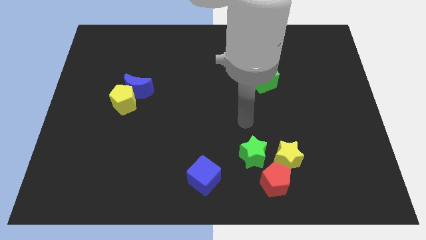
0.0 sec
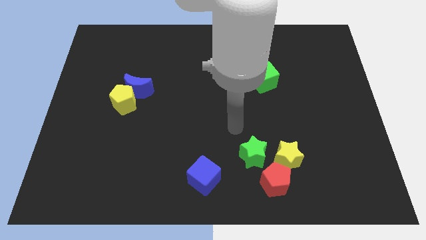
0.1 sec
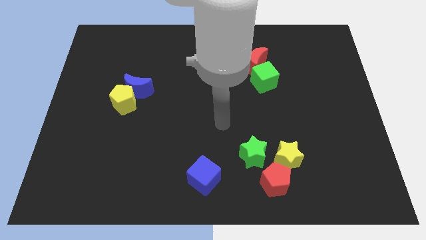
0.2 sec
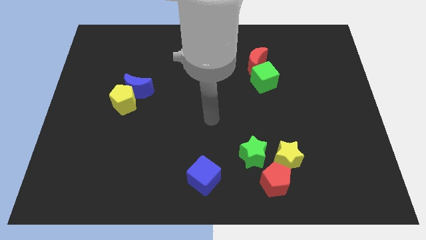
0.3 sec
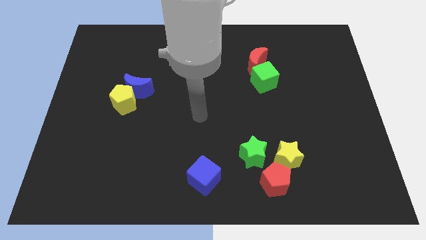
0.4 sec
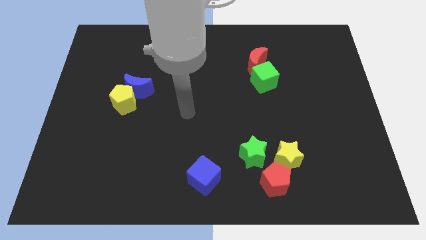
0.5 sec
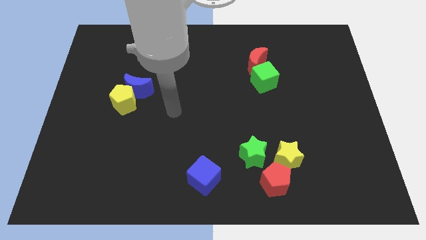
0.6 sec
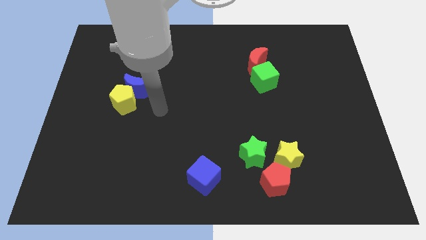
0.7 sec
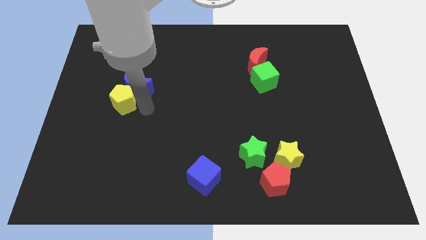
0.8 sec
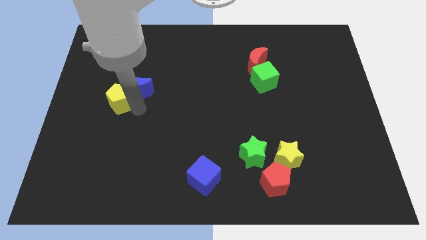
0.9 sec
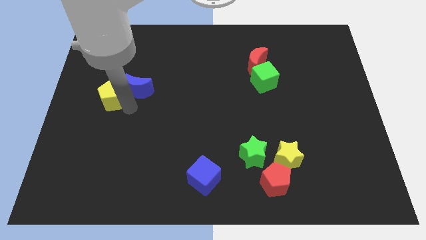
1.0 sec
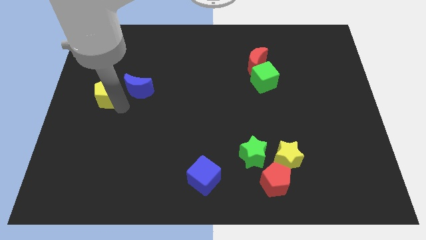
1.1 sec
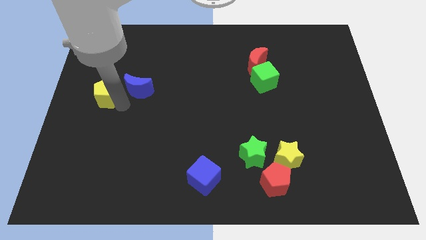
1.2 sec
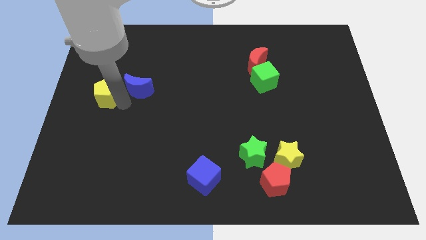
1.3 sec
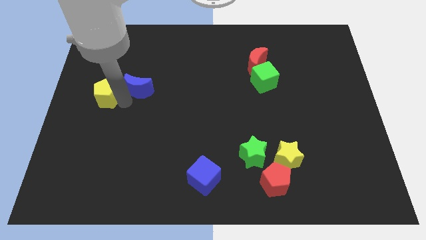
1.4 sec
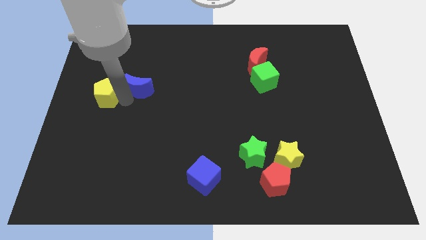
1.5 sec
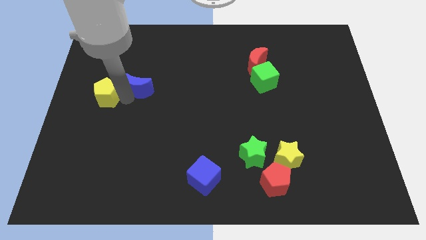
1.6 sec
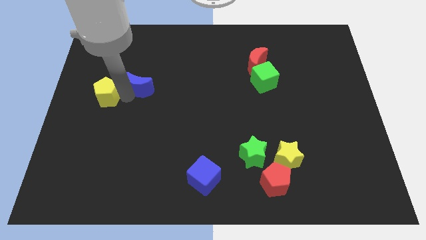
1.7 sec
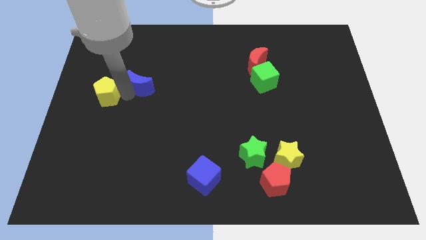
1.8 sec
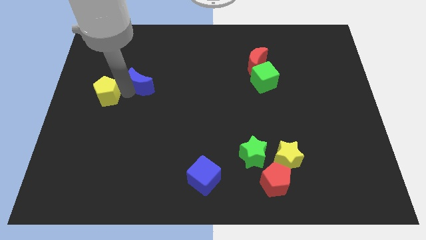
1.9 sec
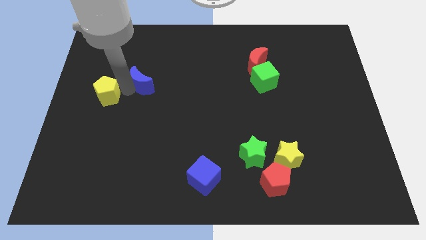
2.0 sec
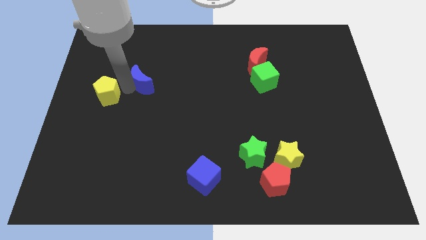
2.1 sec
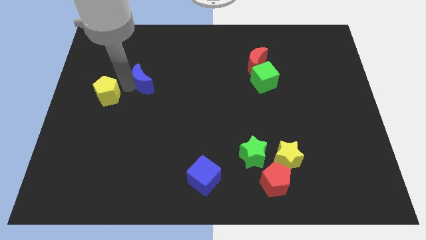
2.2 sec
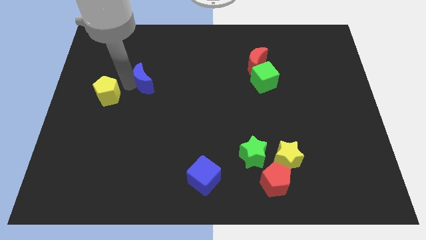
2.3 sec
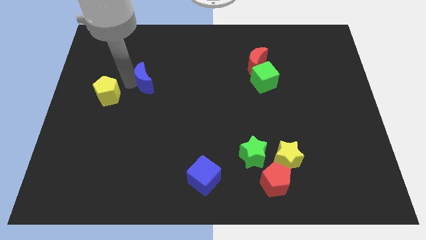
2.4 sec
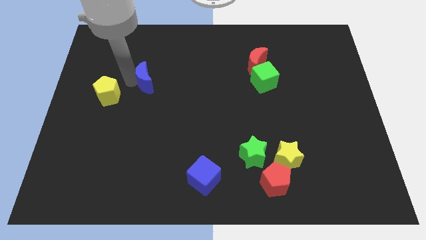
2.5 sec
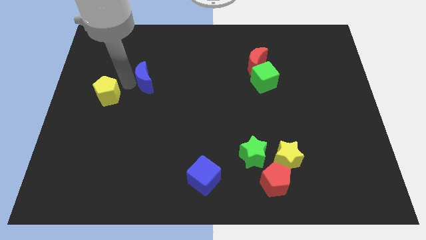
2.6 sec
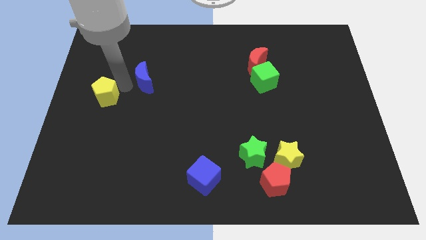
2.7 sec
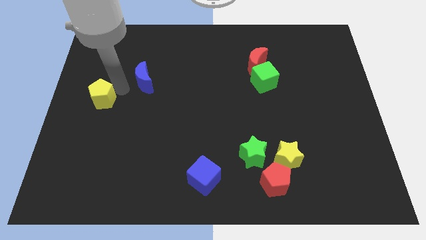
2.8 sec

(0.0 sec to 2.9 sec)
move the blue moon away from the yellow pentagon

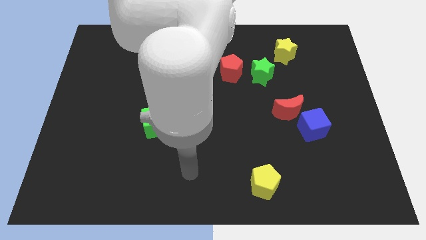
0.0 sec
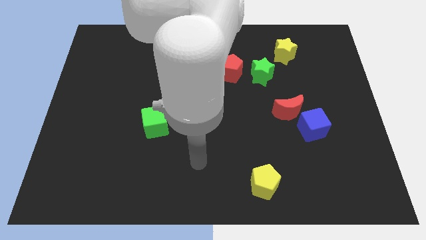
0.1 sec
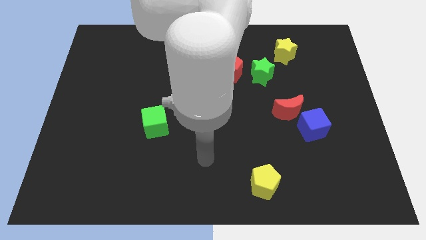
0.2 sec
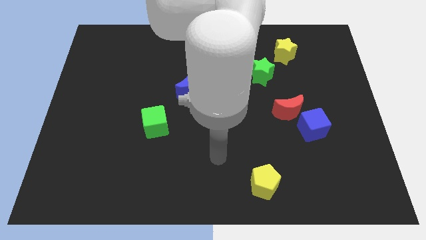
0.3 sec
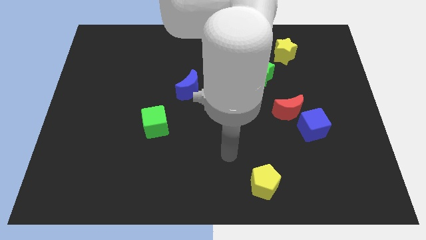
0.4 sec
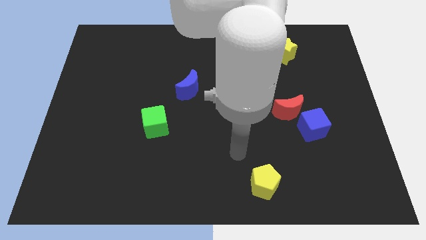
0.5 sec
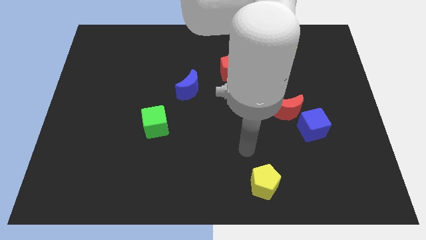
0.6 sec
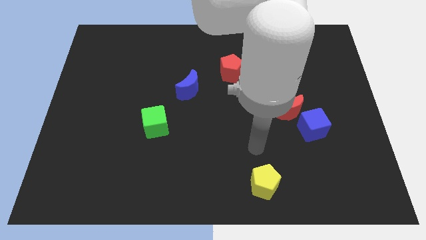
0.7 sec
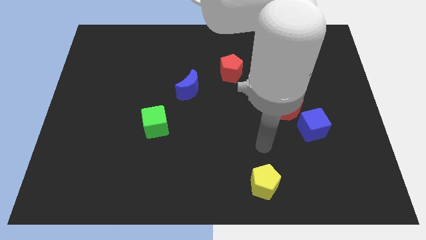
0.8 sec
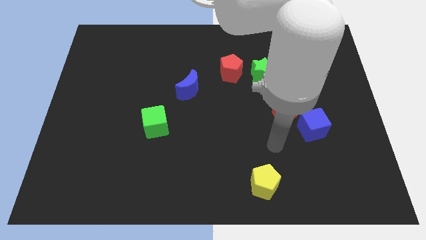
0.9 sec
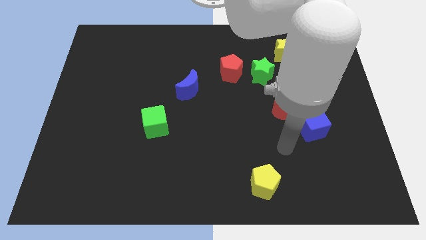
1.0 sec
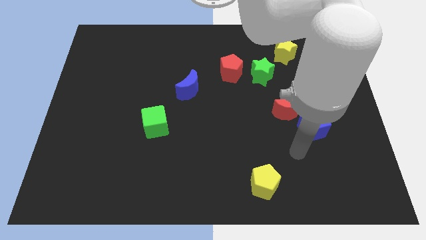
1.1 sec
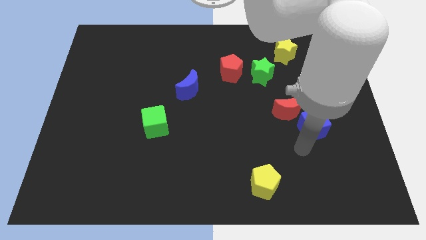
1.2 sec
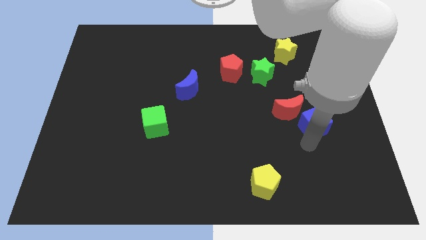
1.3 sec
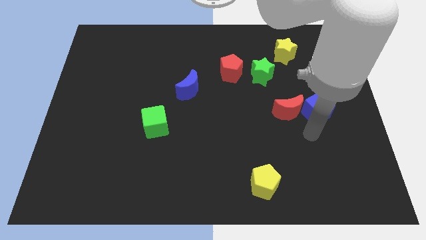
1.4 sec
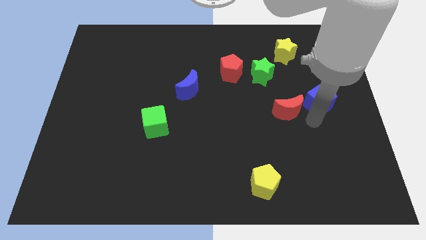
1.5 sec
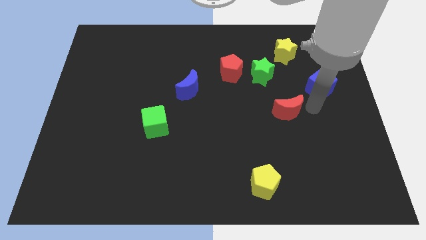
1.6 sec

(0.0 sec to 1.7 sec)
separate the red moon from the blue cube

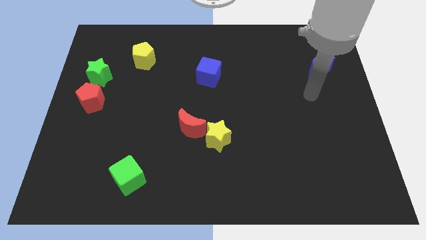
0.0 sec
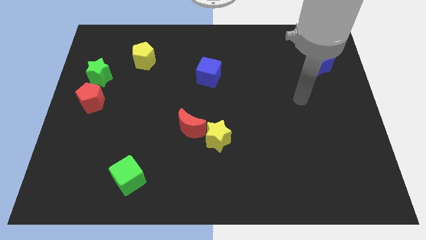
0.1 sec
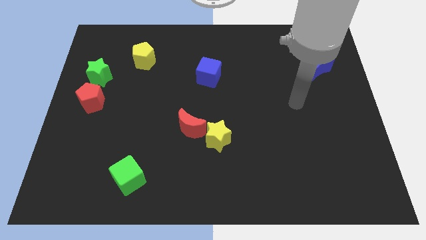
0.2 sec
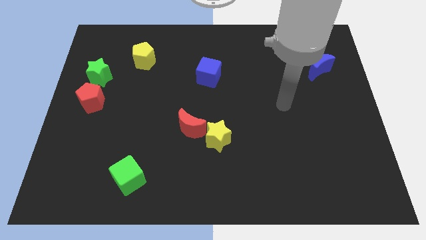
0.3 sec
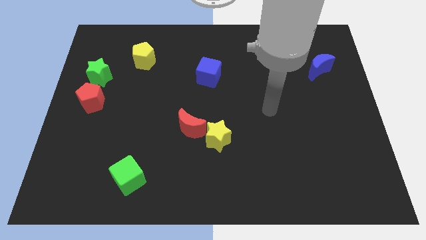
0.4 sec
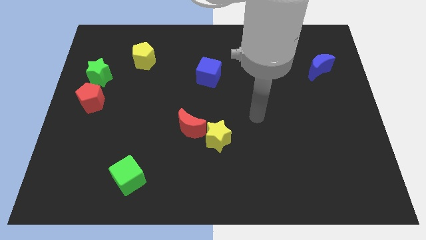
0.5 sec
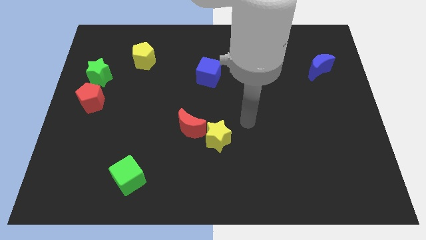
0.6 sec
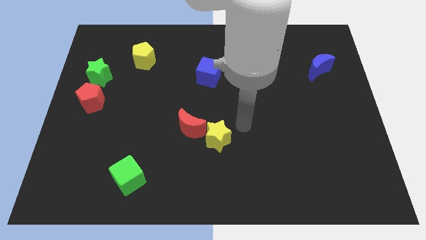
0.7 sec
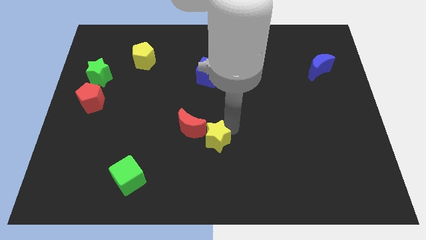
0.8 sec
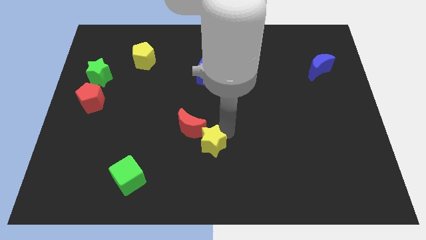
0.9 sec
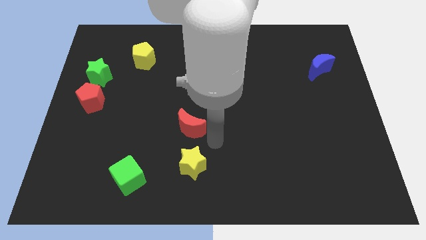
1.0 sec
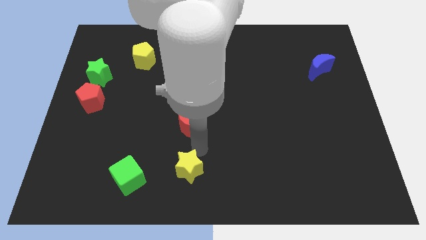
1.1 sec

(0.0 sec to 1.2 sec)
pull the red moon apart from the yellow star

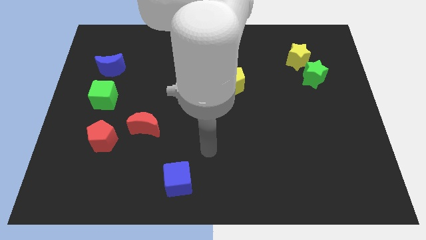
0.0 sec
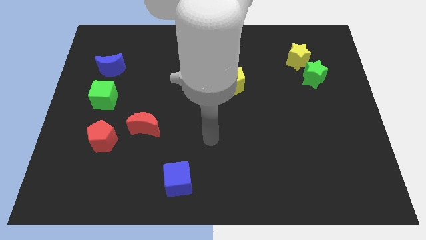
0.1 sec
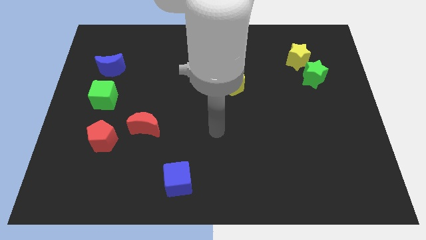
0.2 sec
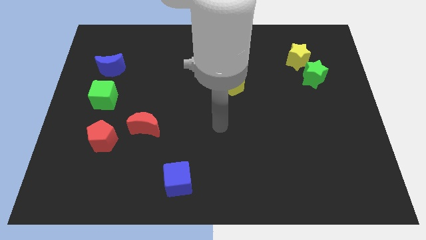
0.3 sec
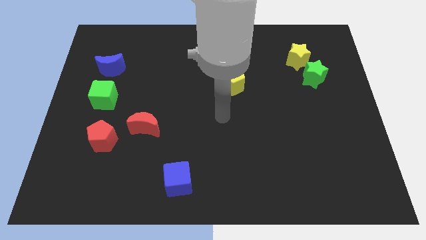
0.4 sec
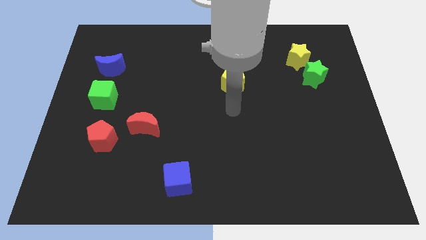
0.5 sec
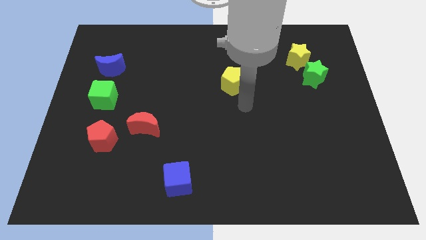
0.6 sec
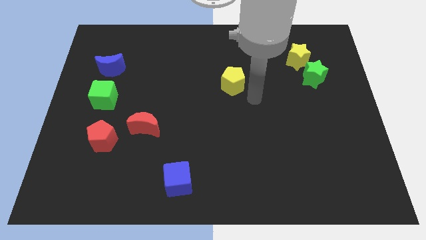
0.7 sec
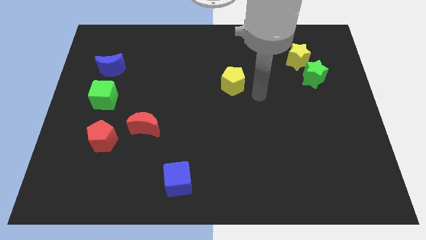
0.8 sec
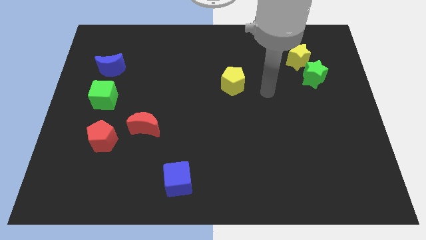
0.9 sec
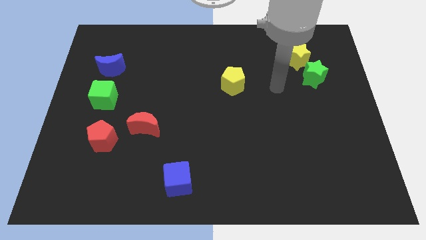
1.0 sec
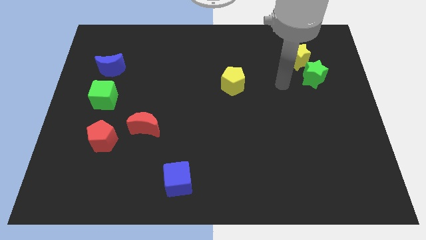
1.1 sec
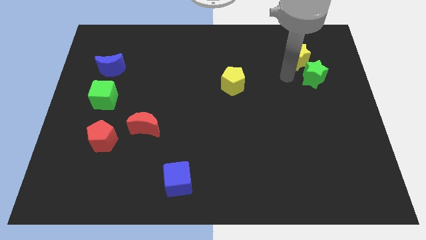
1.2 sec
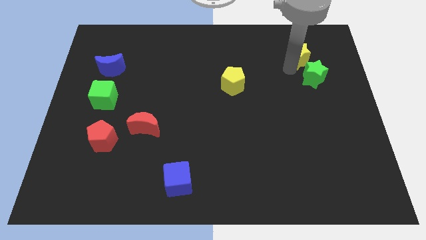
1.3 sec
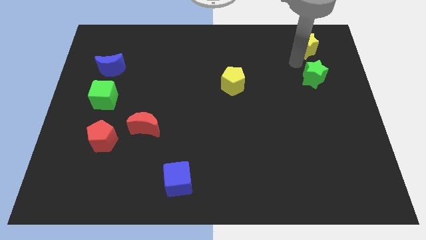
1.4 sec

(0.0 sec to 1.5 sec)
pull the green star apart from the yellow star

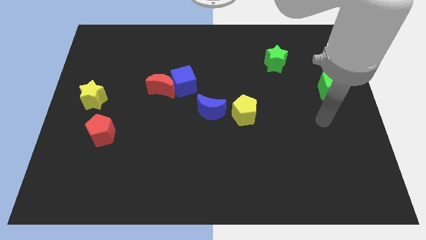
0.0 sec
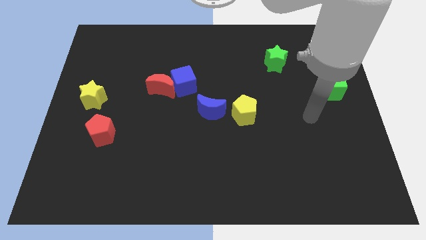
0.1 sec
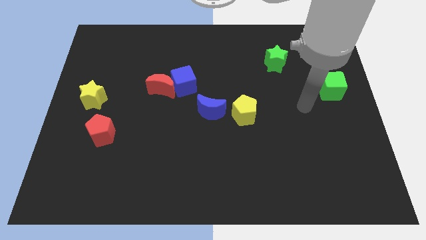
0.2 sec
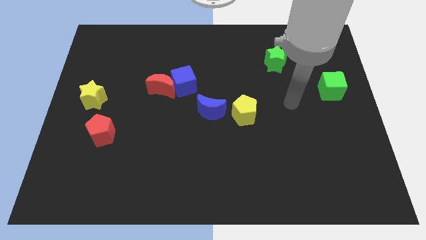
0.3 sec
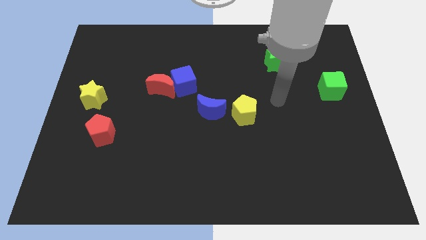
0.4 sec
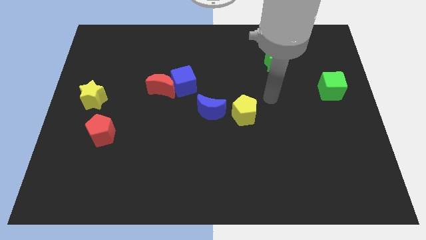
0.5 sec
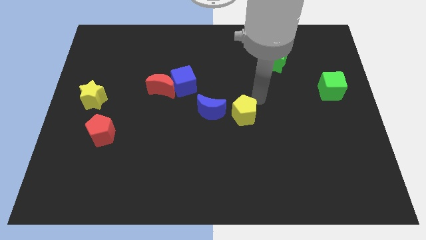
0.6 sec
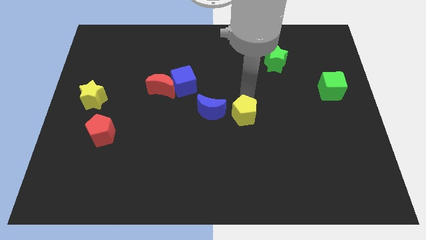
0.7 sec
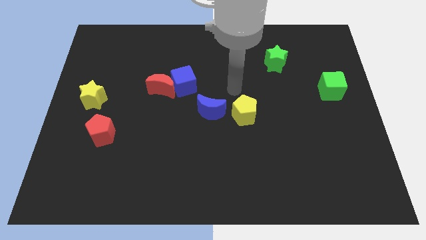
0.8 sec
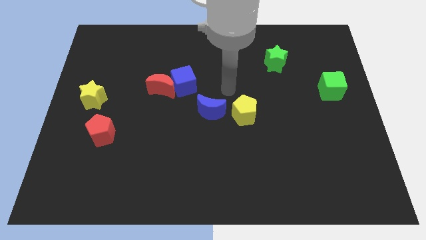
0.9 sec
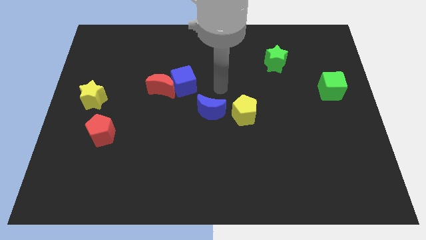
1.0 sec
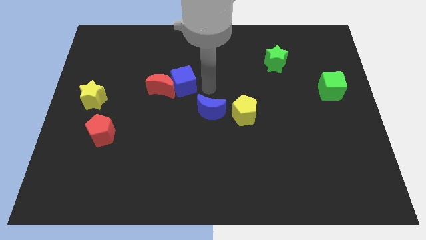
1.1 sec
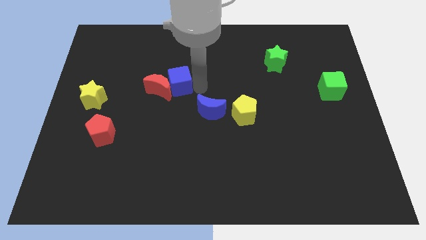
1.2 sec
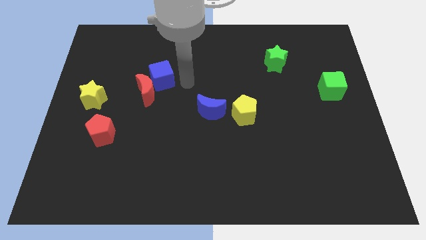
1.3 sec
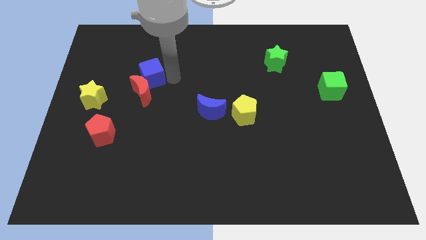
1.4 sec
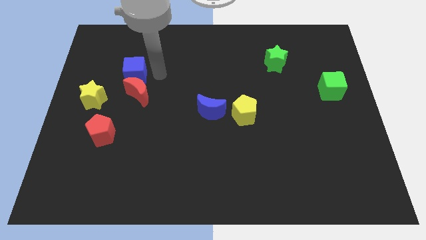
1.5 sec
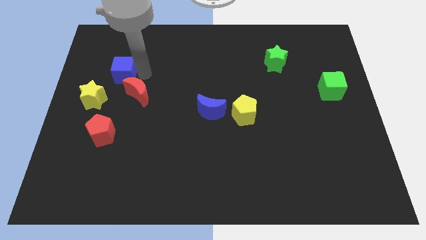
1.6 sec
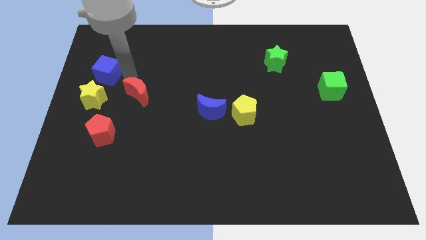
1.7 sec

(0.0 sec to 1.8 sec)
pull the red moon apart from the blue cube
